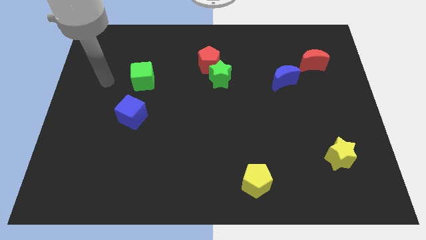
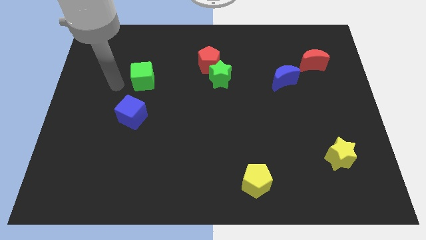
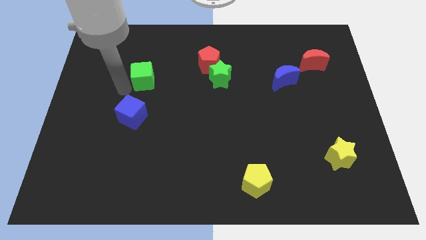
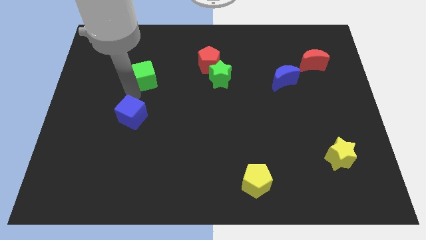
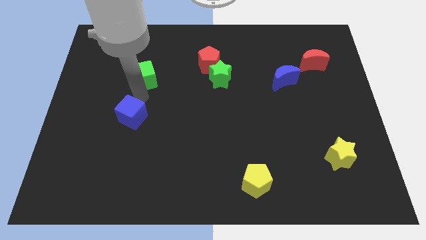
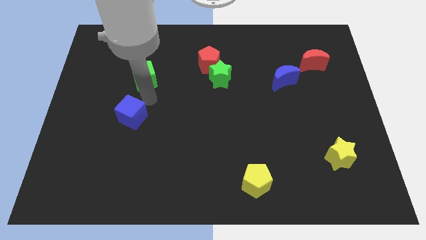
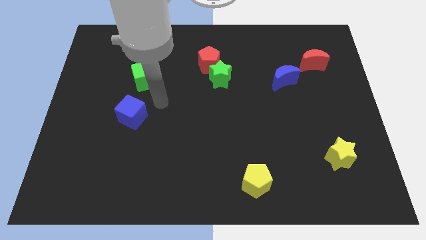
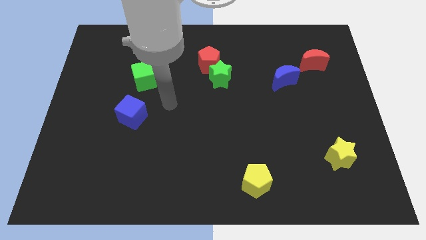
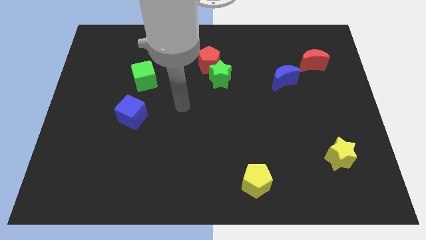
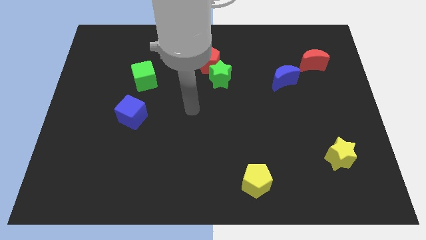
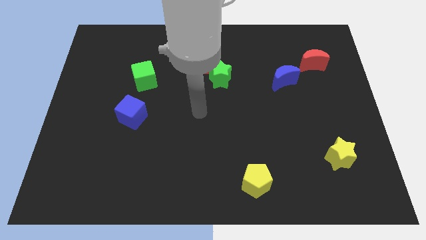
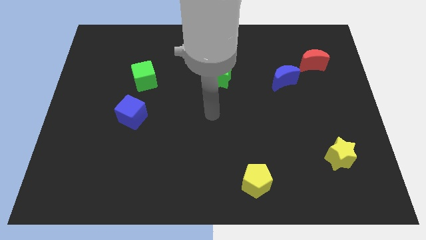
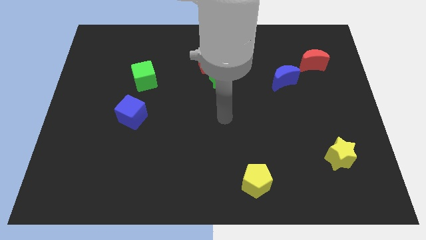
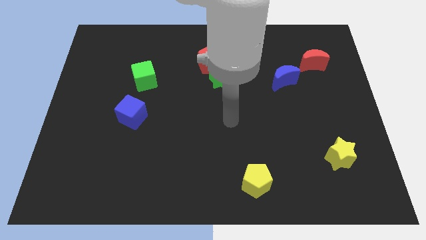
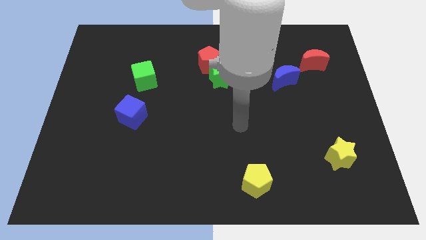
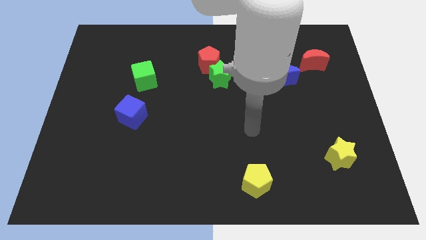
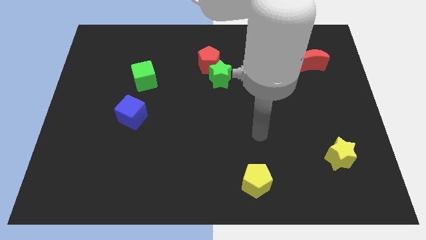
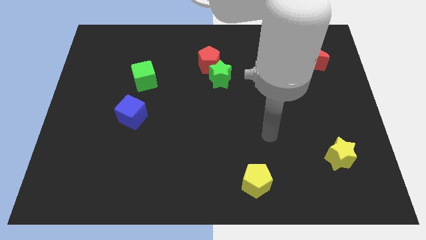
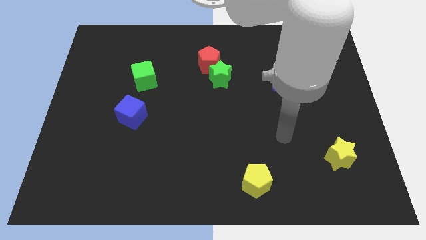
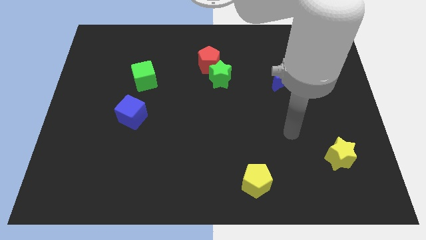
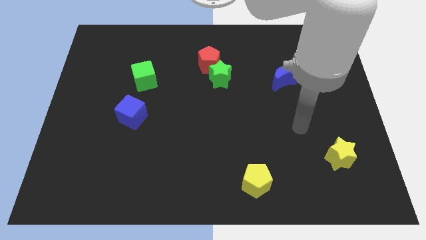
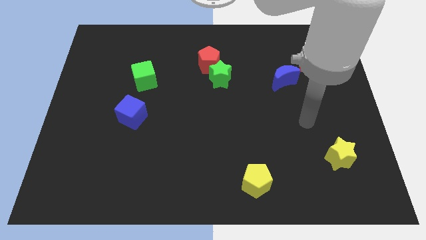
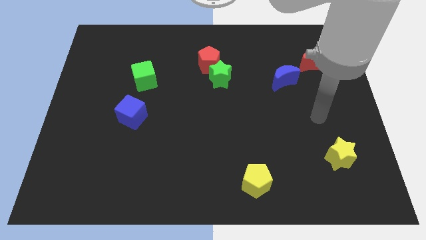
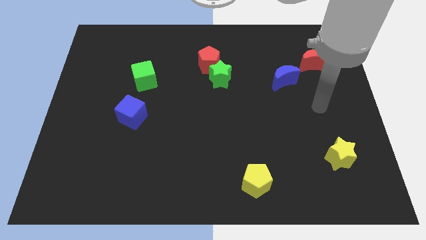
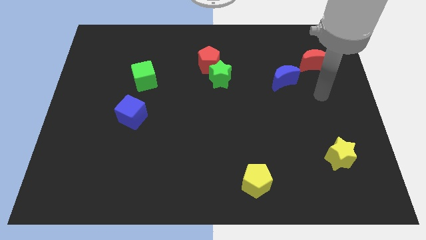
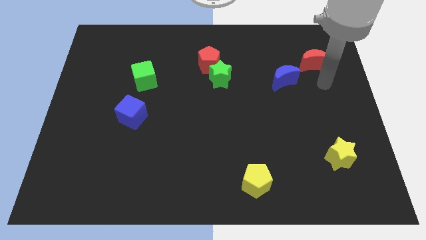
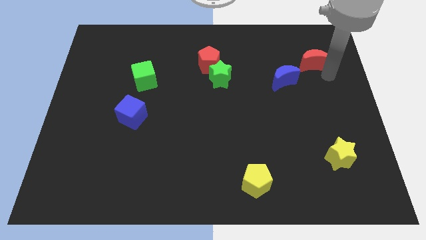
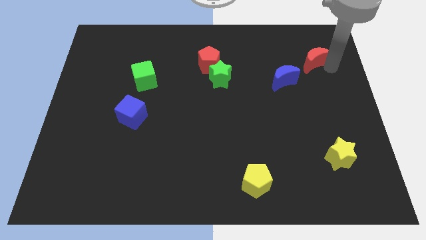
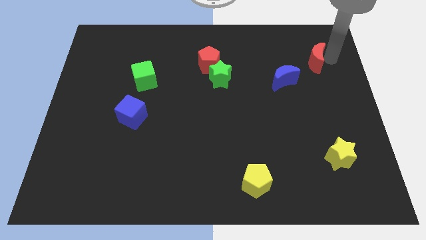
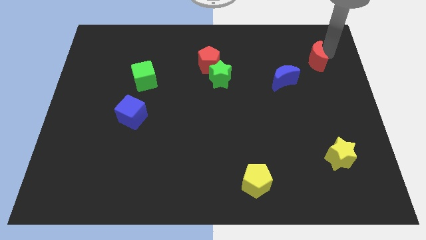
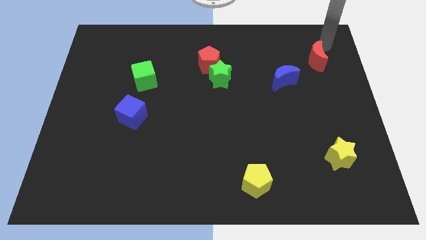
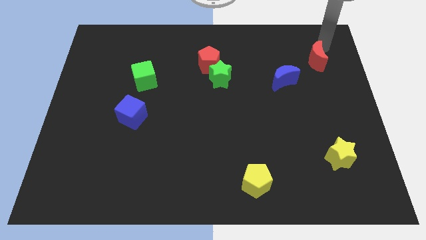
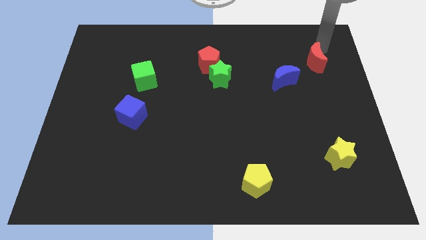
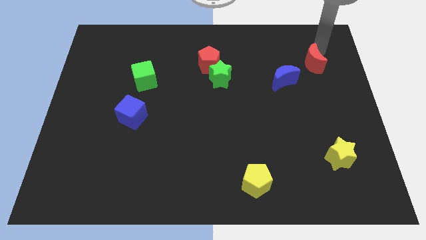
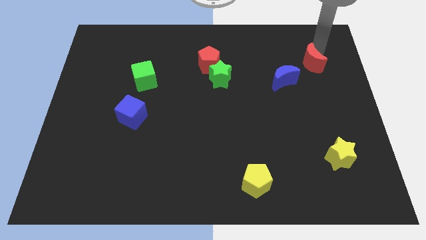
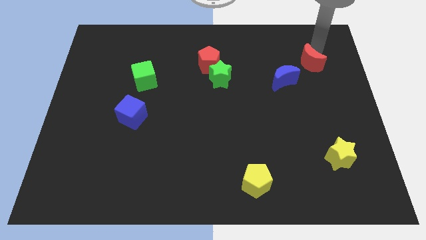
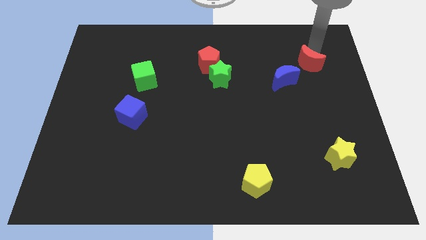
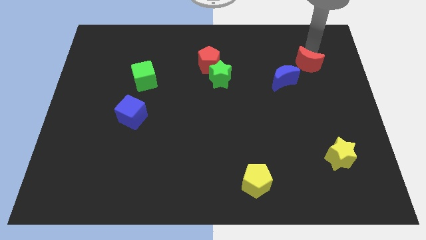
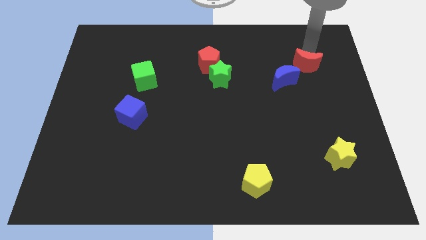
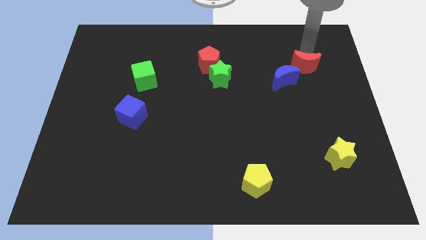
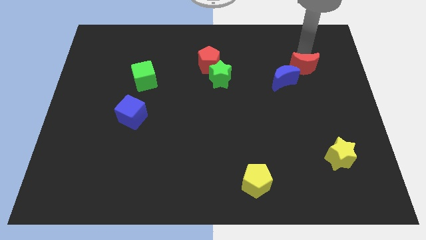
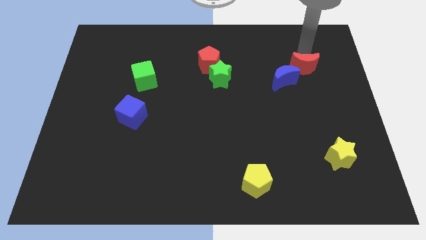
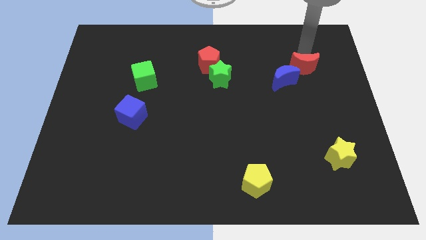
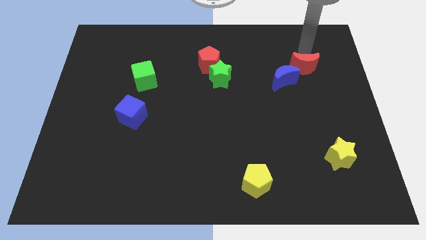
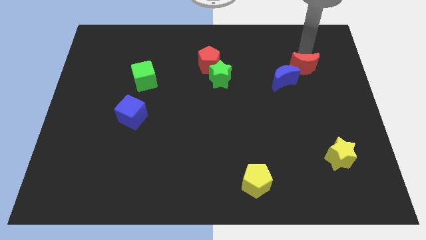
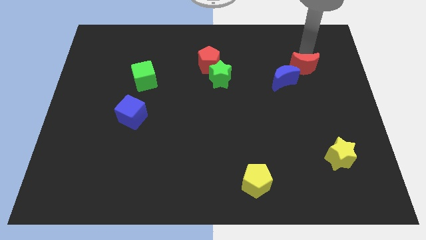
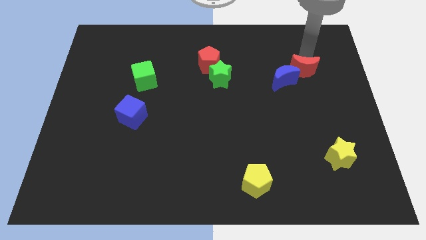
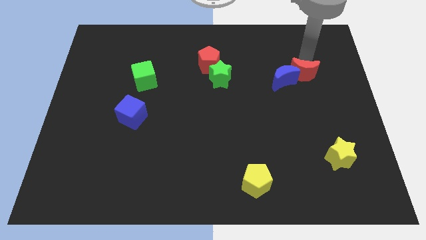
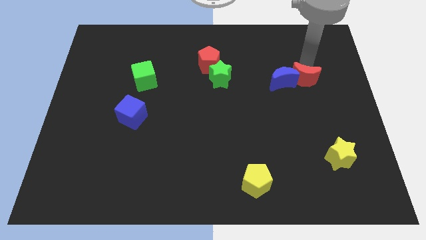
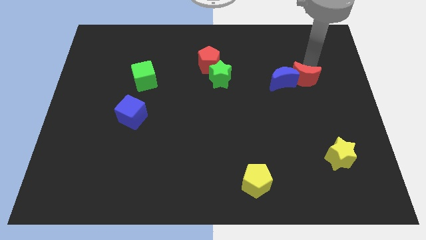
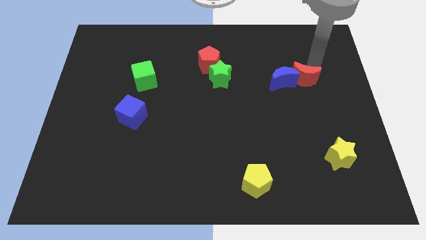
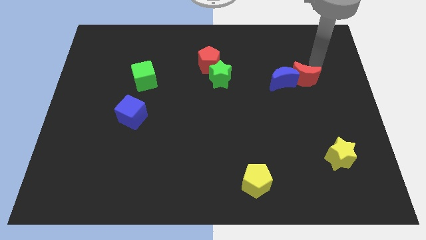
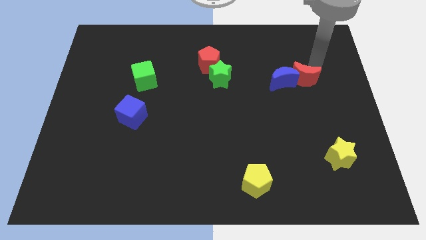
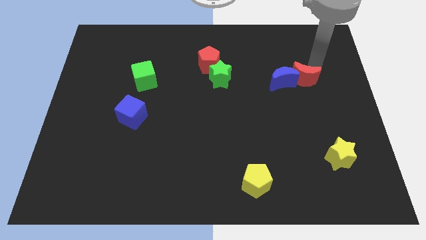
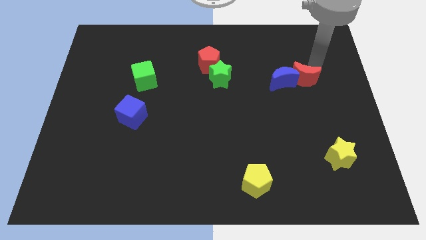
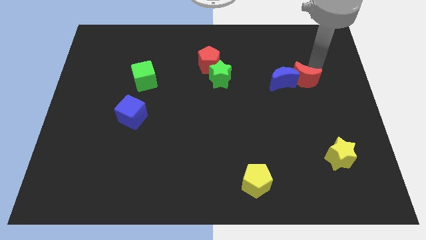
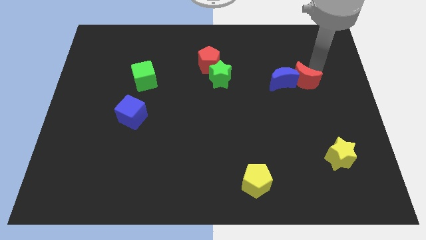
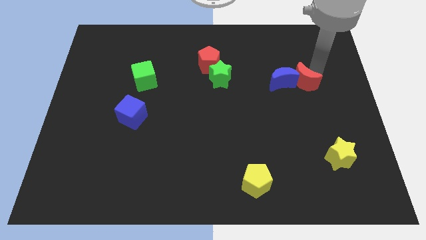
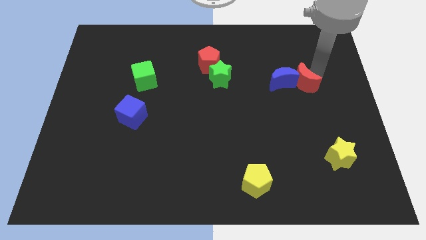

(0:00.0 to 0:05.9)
slightly push the red moon downwards and then left

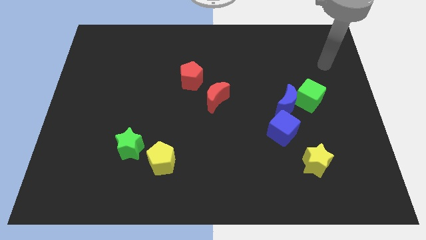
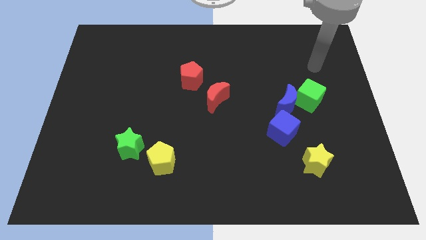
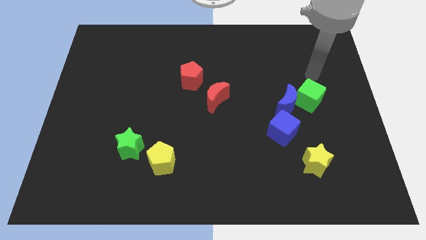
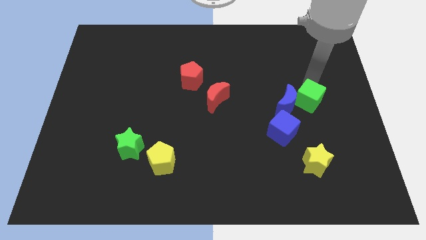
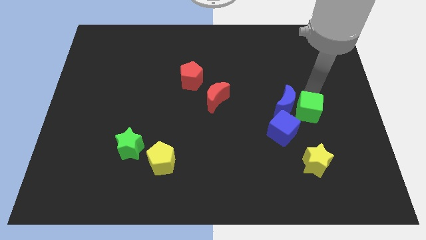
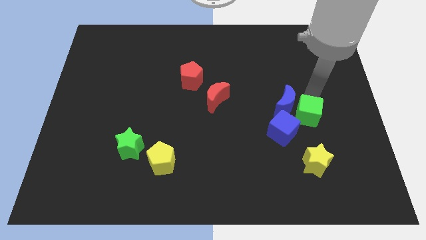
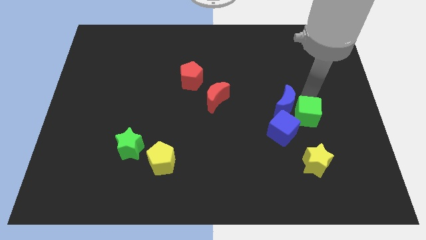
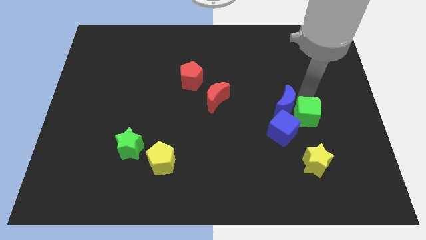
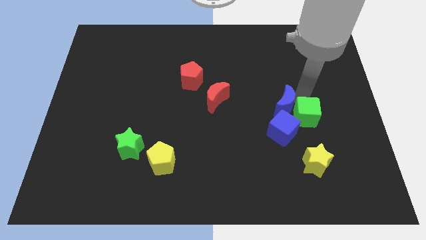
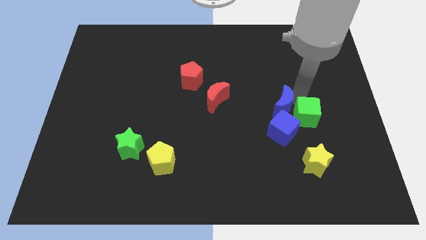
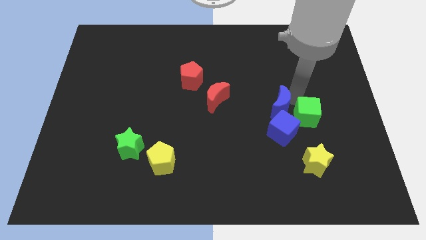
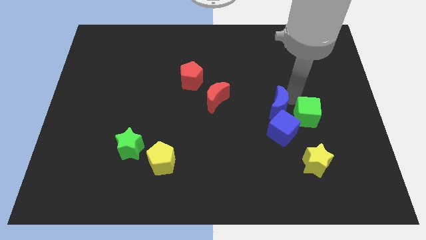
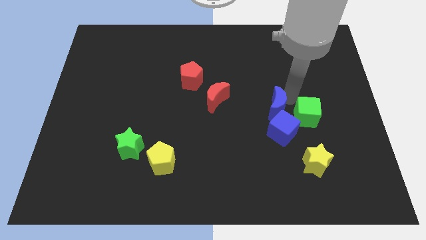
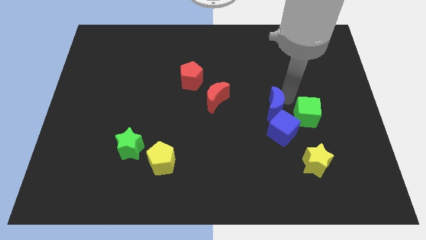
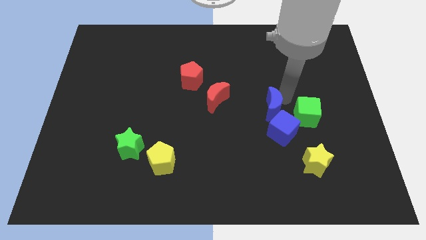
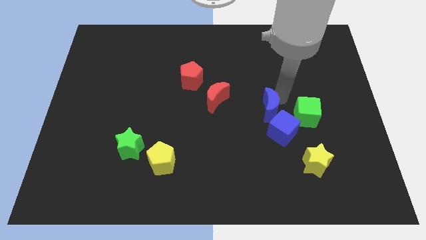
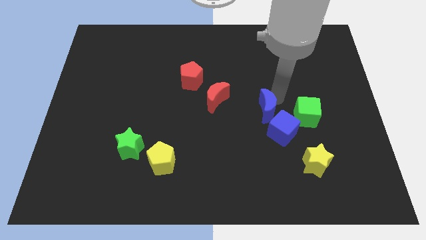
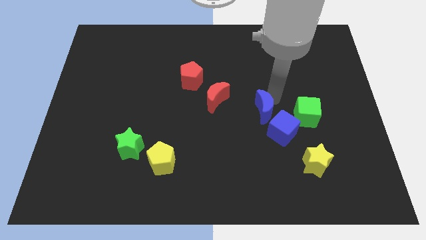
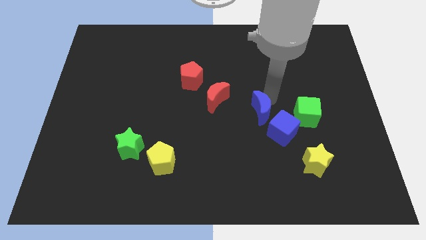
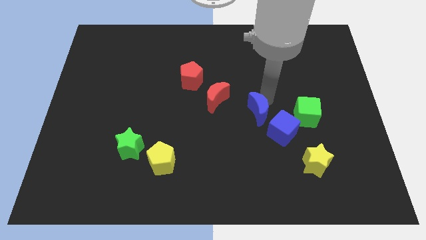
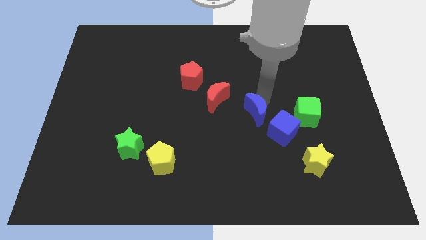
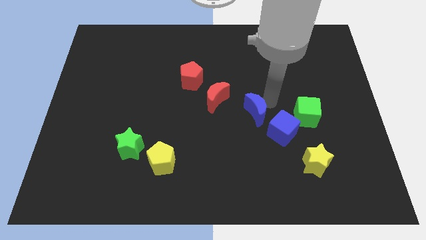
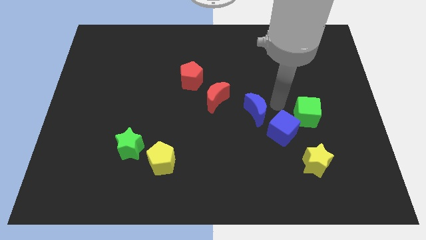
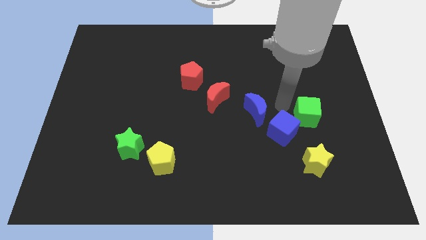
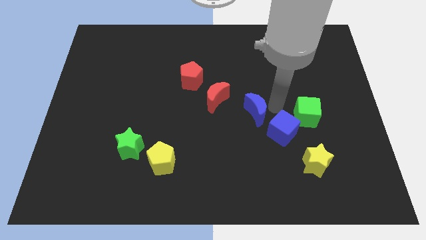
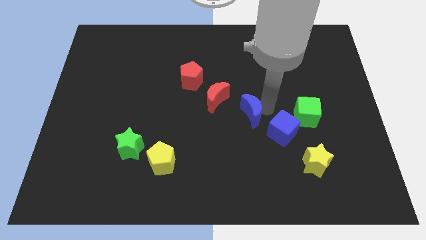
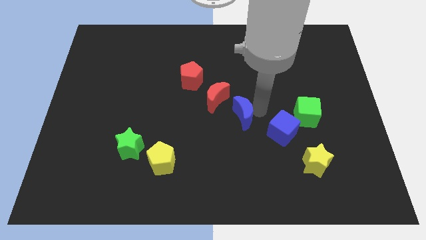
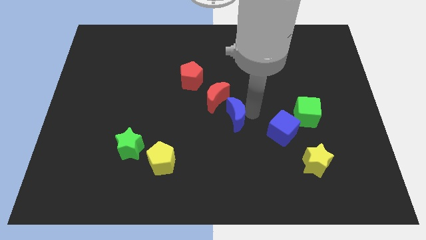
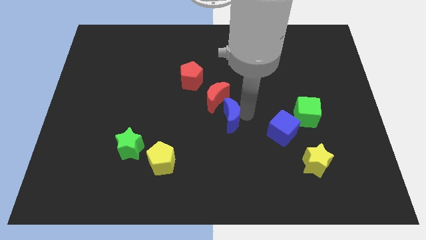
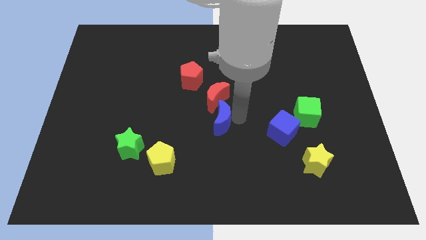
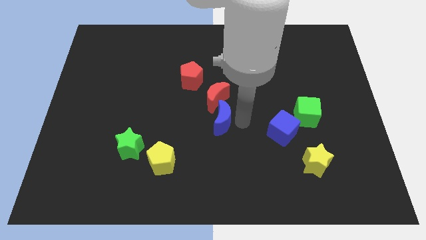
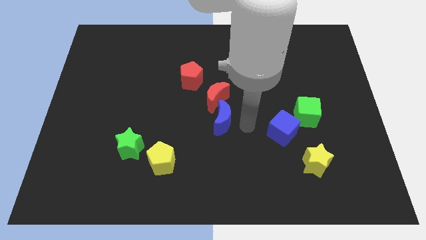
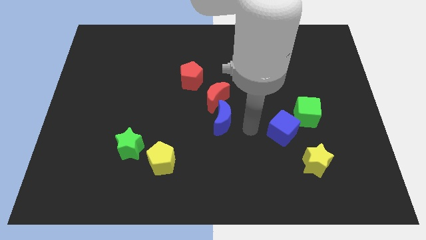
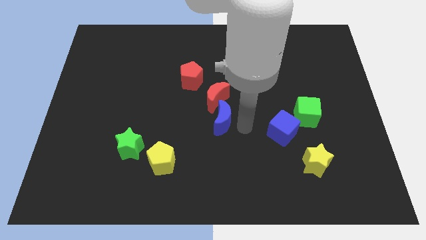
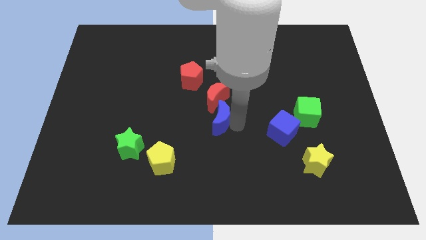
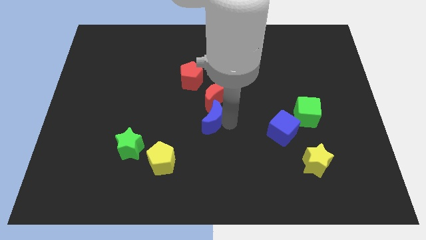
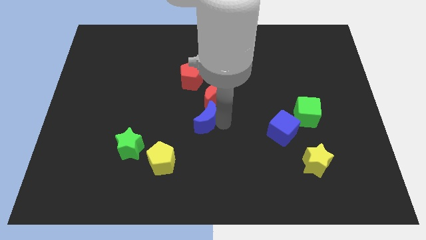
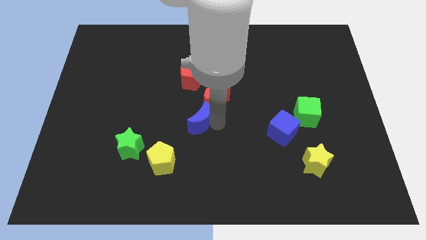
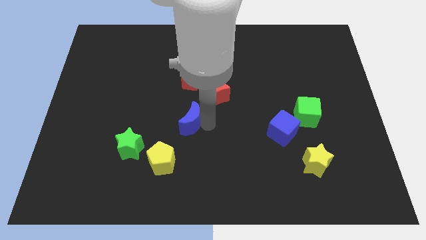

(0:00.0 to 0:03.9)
slide the blue moon left
